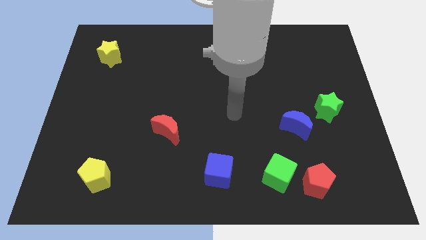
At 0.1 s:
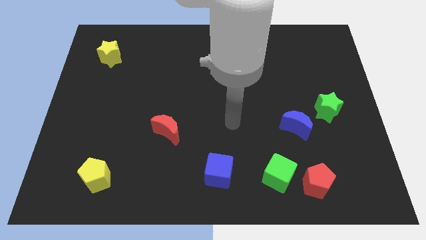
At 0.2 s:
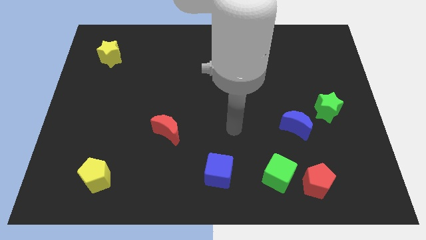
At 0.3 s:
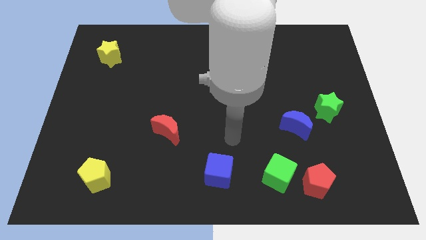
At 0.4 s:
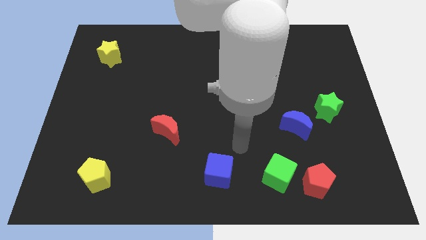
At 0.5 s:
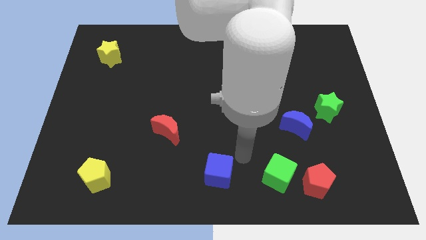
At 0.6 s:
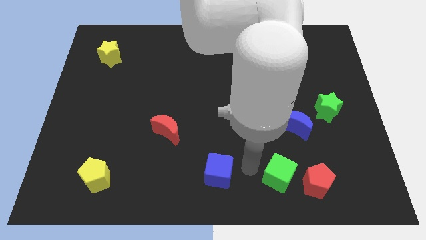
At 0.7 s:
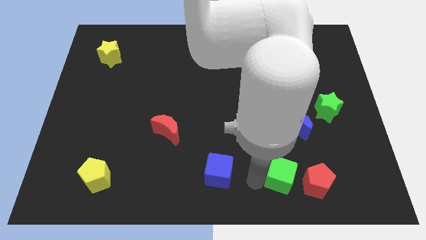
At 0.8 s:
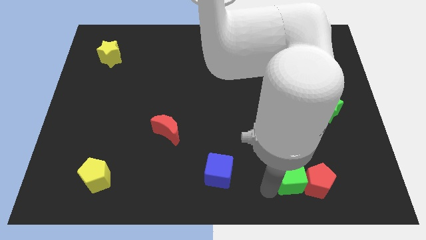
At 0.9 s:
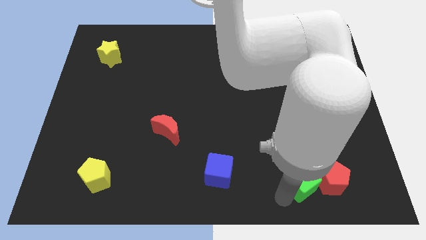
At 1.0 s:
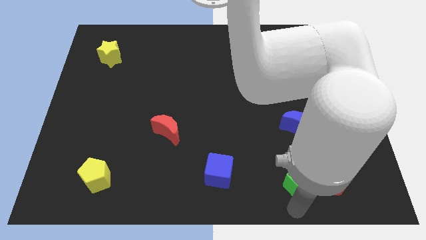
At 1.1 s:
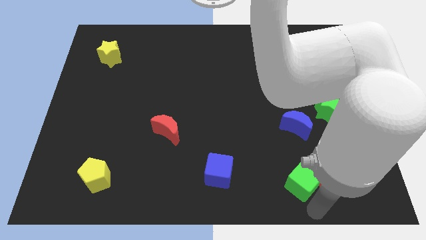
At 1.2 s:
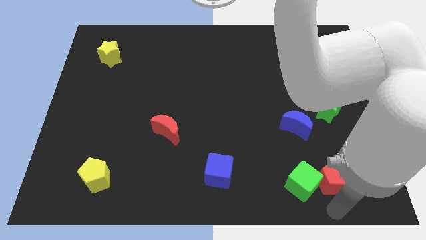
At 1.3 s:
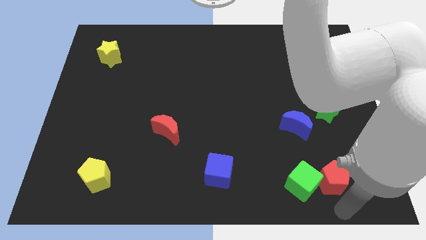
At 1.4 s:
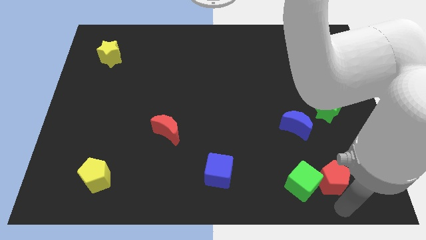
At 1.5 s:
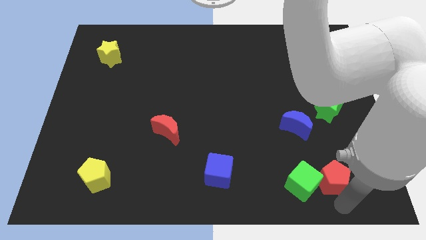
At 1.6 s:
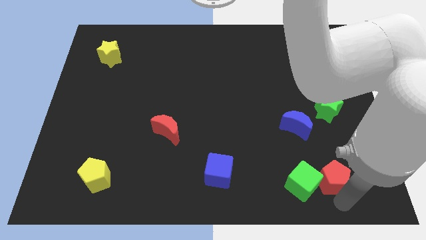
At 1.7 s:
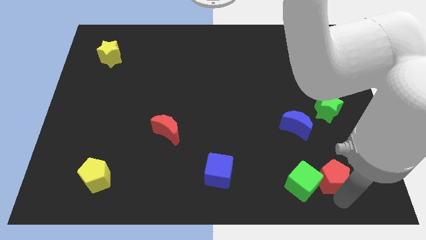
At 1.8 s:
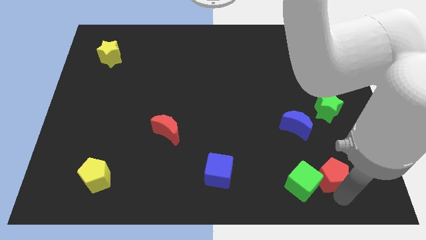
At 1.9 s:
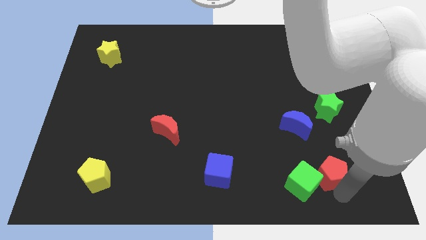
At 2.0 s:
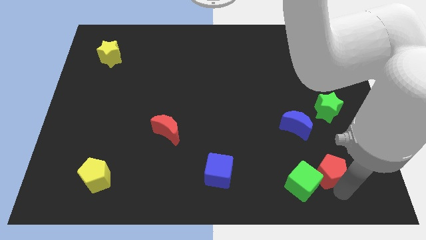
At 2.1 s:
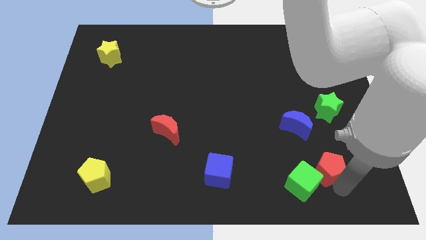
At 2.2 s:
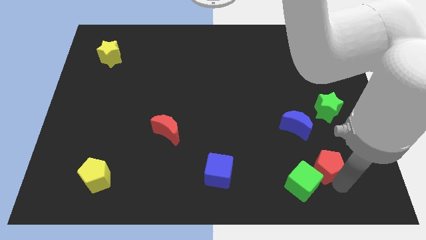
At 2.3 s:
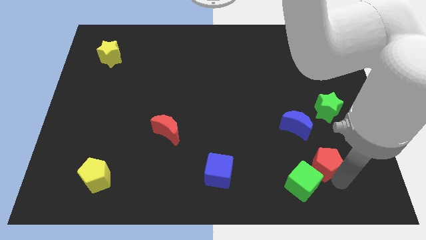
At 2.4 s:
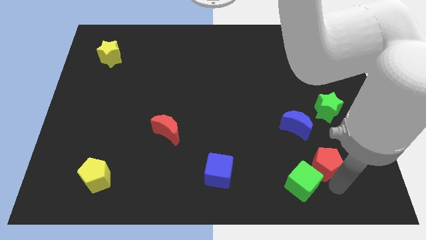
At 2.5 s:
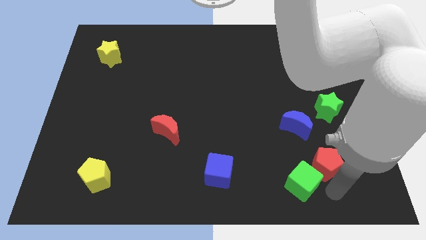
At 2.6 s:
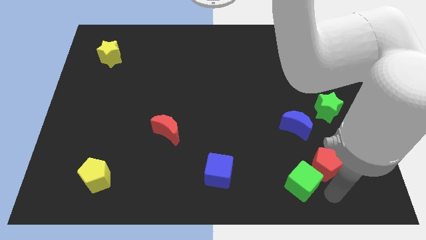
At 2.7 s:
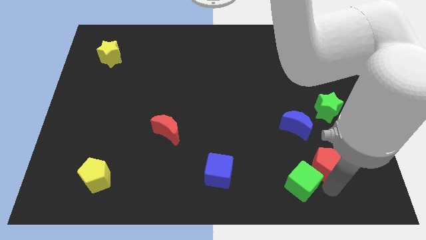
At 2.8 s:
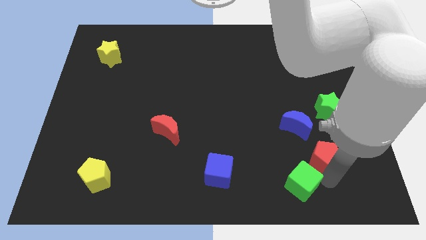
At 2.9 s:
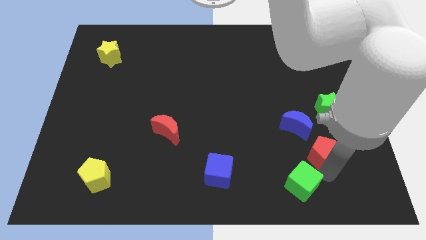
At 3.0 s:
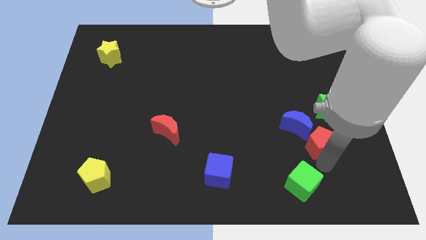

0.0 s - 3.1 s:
push the red pentagon upwards a little

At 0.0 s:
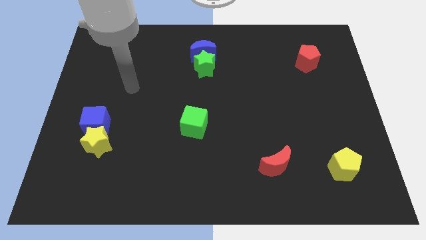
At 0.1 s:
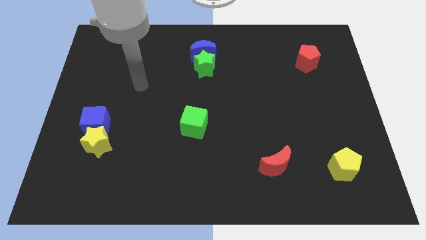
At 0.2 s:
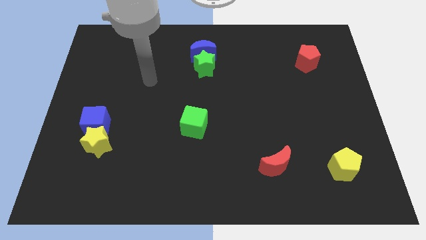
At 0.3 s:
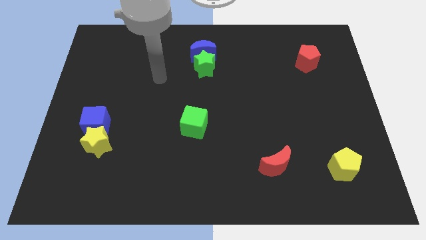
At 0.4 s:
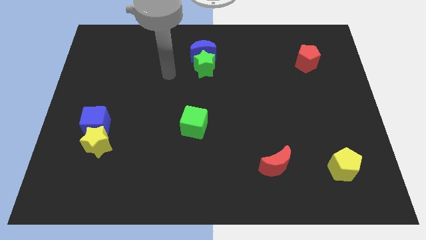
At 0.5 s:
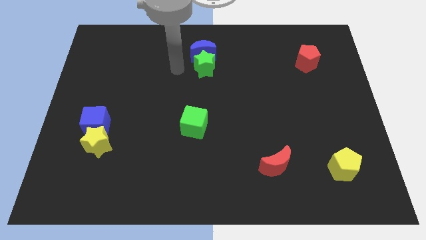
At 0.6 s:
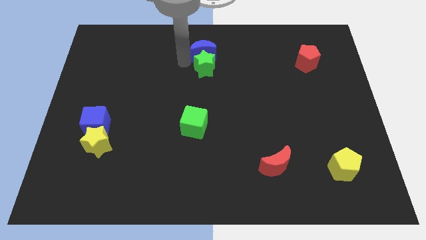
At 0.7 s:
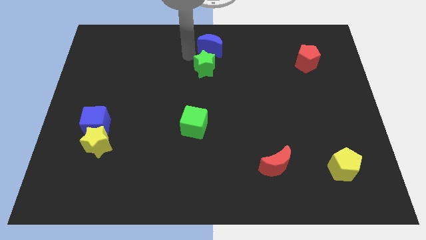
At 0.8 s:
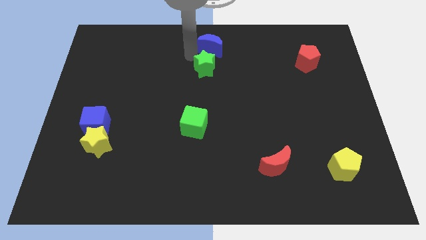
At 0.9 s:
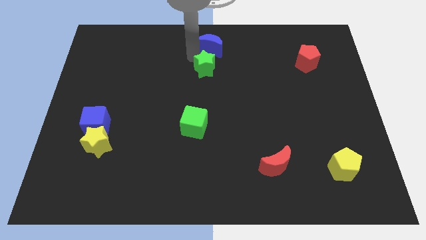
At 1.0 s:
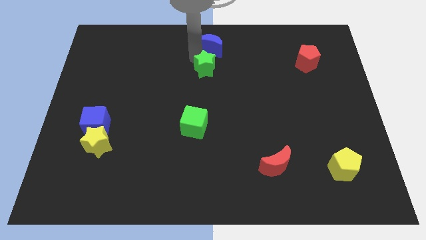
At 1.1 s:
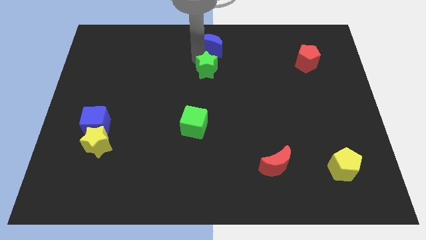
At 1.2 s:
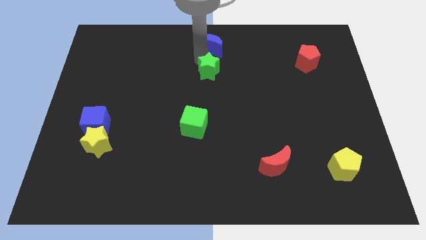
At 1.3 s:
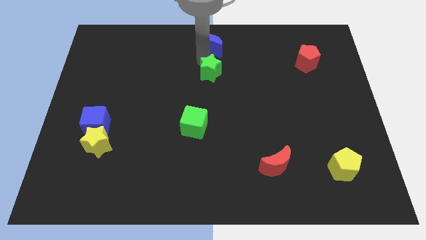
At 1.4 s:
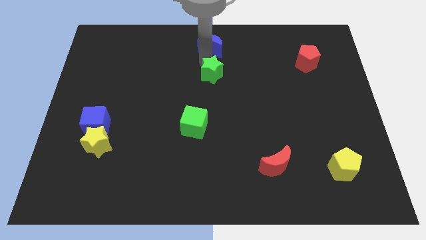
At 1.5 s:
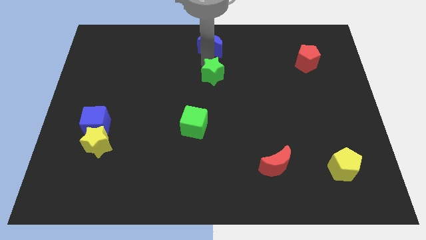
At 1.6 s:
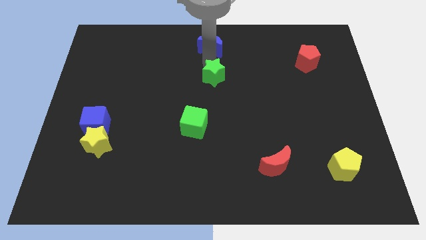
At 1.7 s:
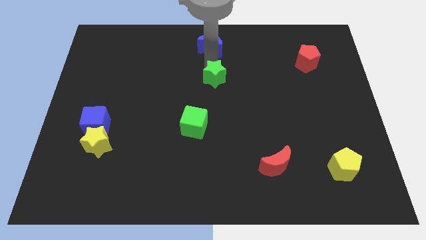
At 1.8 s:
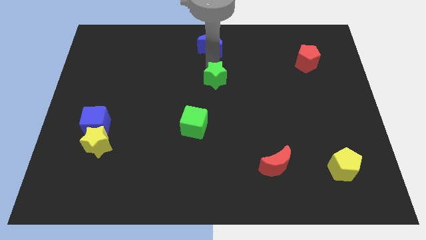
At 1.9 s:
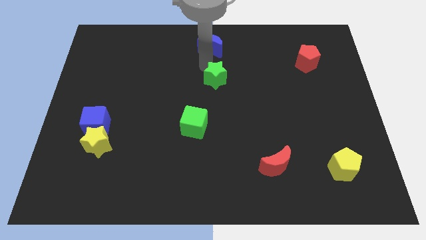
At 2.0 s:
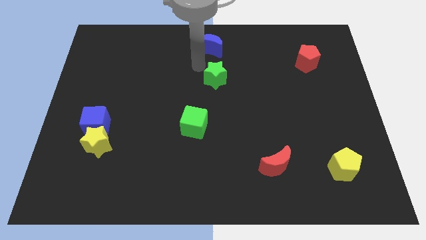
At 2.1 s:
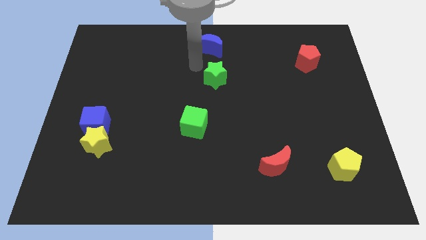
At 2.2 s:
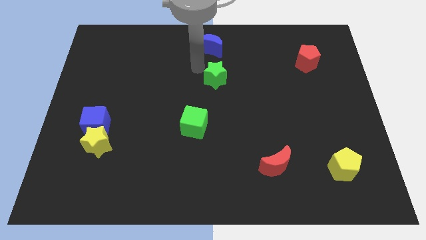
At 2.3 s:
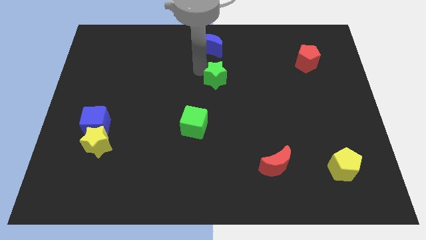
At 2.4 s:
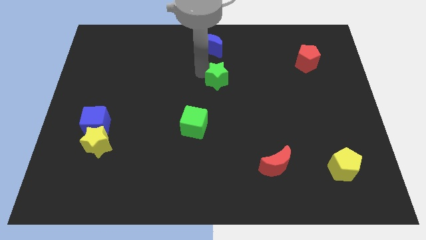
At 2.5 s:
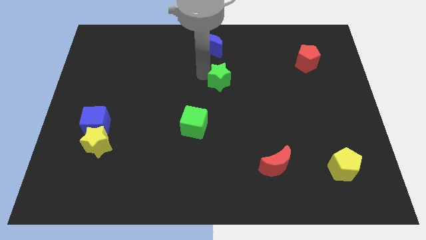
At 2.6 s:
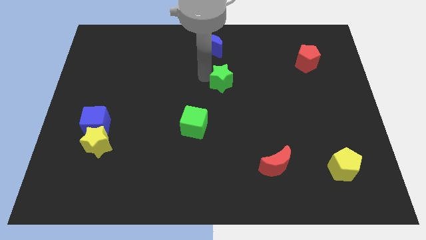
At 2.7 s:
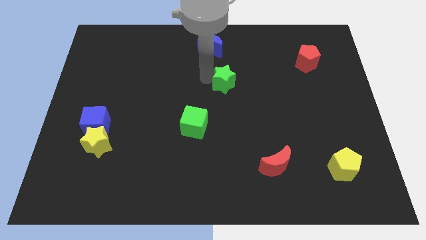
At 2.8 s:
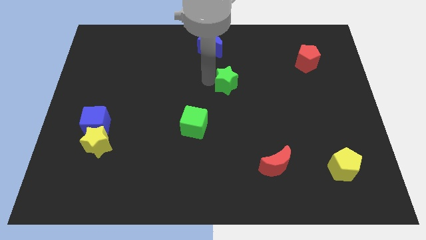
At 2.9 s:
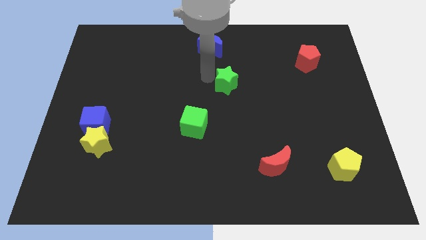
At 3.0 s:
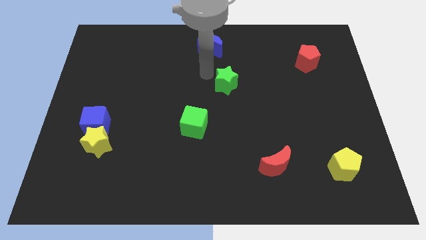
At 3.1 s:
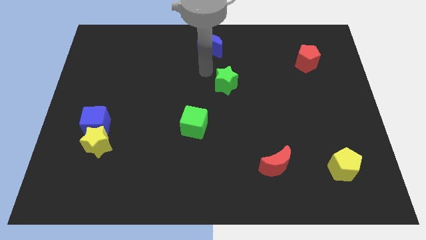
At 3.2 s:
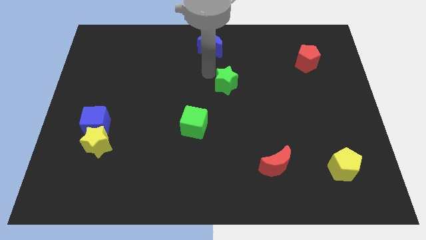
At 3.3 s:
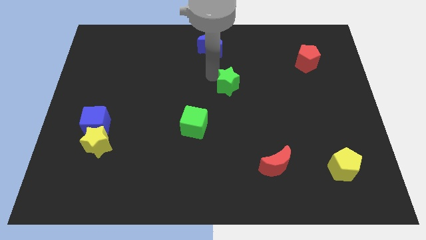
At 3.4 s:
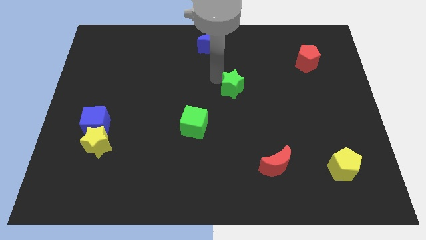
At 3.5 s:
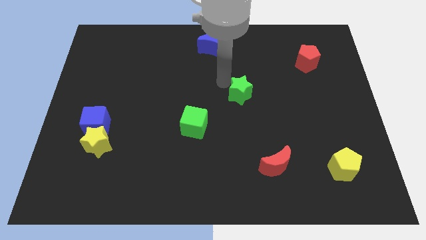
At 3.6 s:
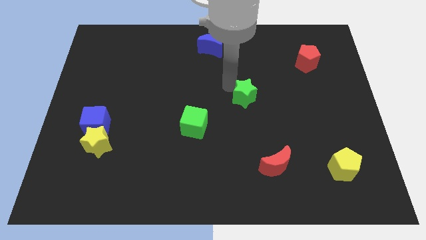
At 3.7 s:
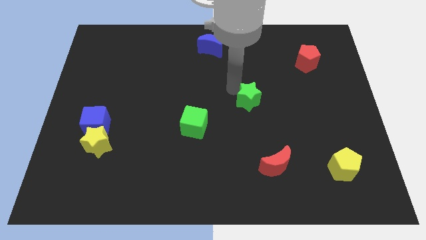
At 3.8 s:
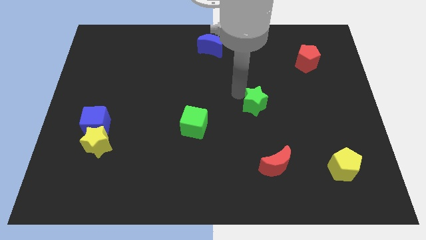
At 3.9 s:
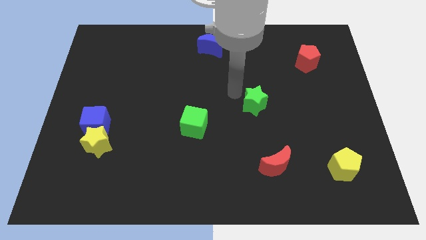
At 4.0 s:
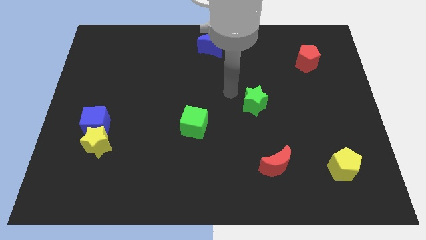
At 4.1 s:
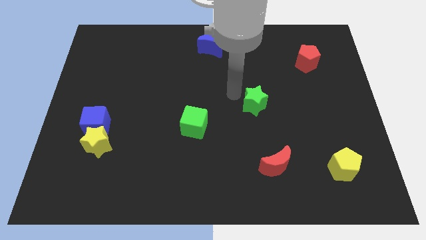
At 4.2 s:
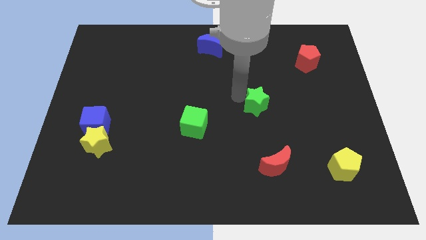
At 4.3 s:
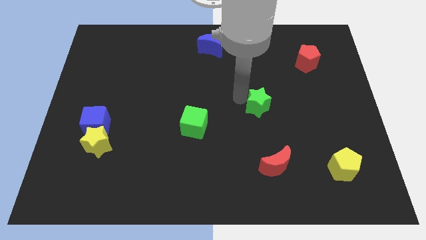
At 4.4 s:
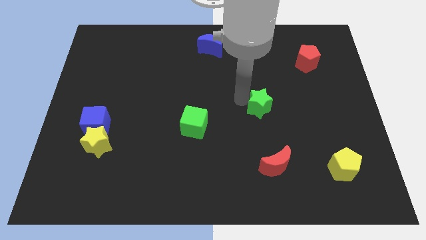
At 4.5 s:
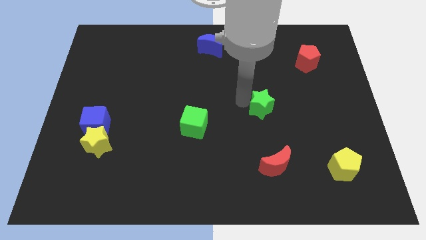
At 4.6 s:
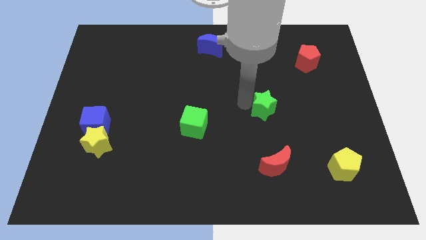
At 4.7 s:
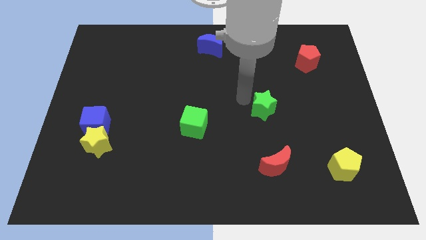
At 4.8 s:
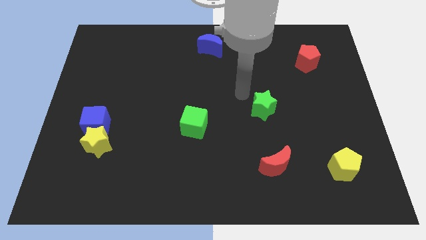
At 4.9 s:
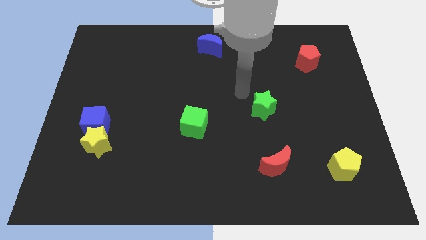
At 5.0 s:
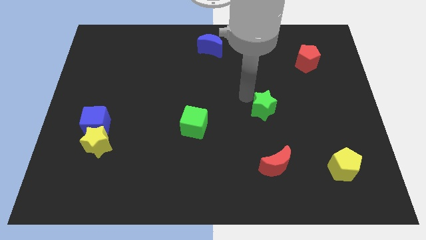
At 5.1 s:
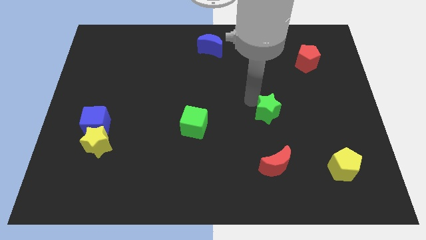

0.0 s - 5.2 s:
push the green star downwards and right
